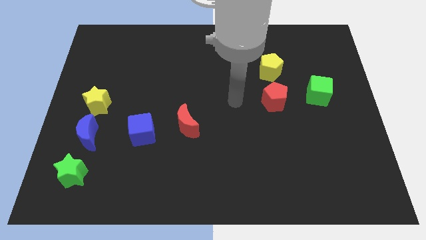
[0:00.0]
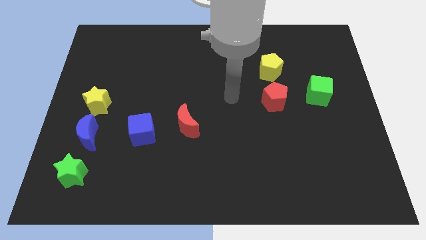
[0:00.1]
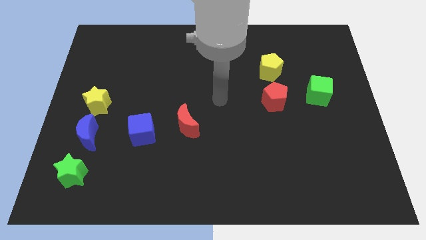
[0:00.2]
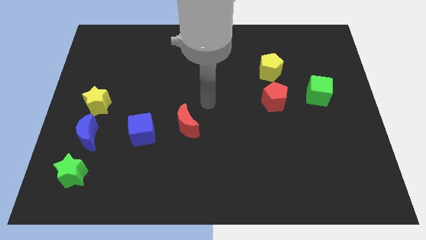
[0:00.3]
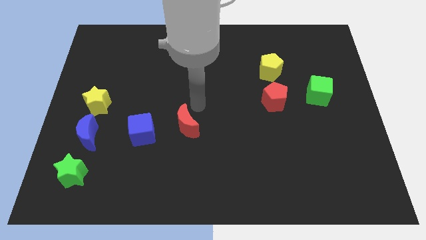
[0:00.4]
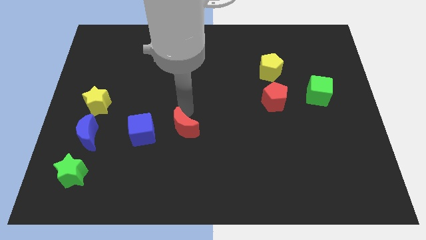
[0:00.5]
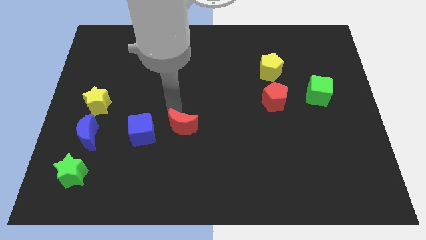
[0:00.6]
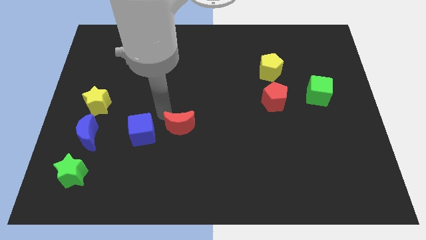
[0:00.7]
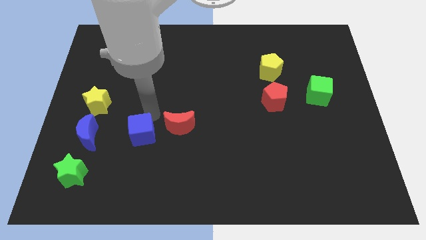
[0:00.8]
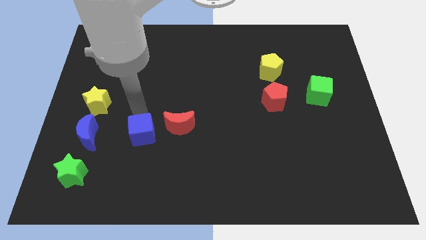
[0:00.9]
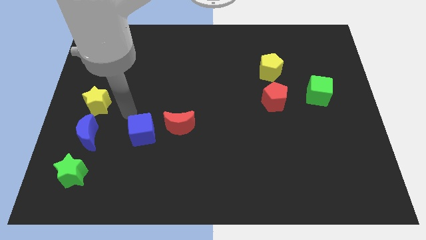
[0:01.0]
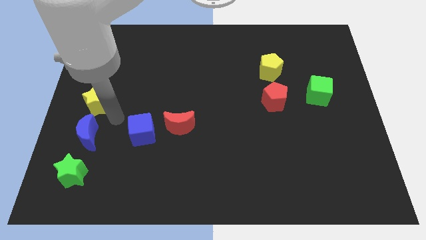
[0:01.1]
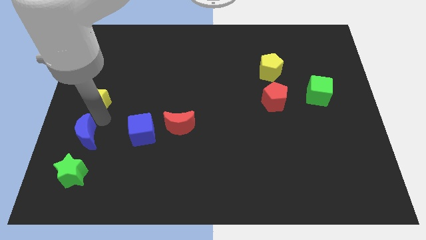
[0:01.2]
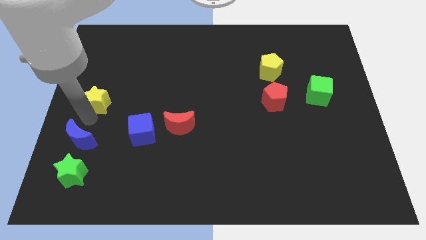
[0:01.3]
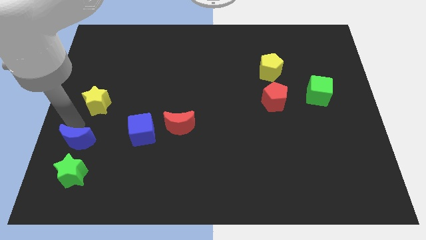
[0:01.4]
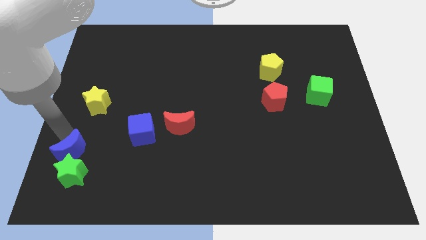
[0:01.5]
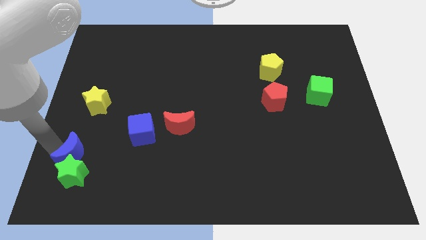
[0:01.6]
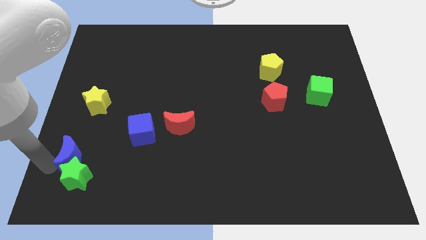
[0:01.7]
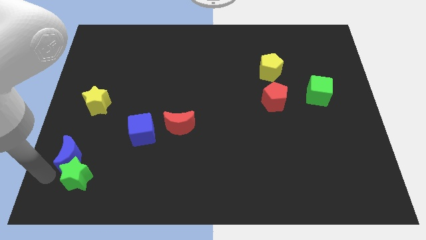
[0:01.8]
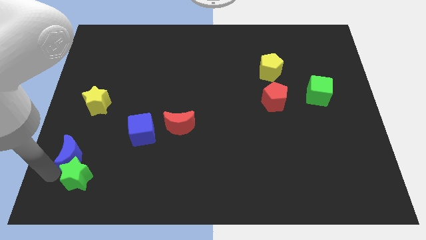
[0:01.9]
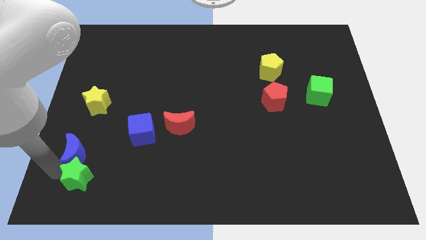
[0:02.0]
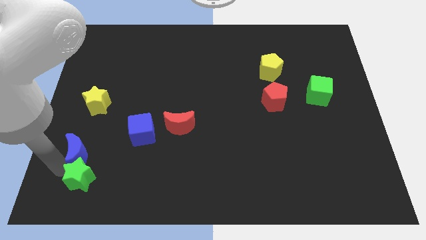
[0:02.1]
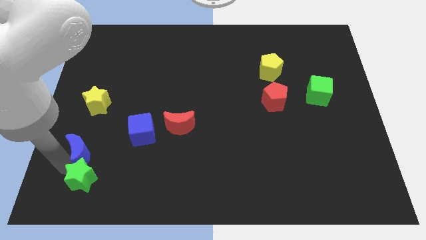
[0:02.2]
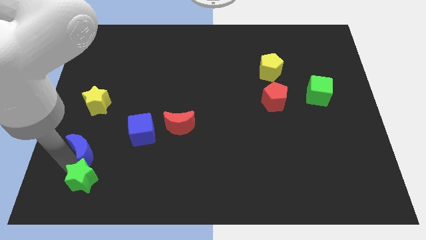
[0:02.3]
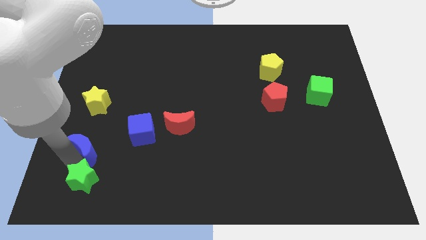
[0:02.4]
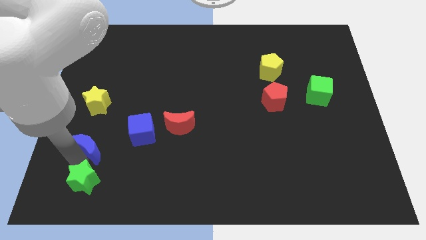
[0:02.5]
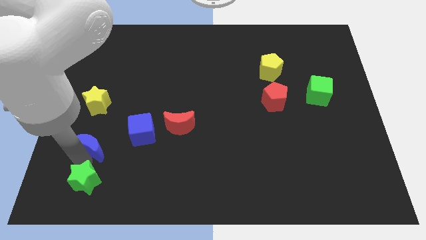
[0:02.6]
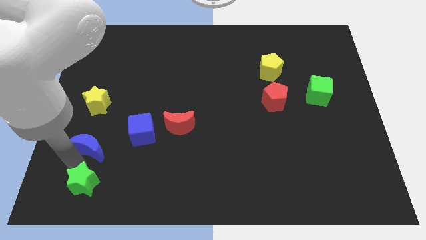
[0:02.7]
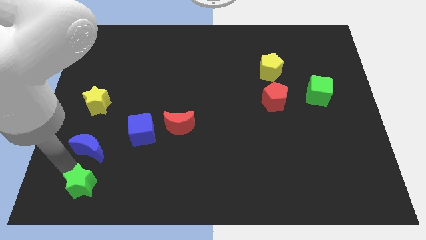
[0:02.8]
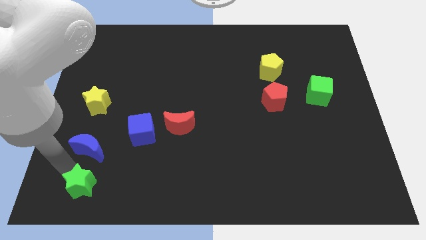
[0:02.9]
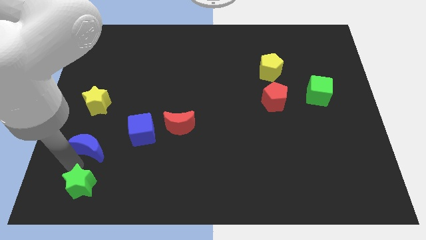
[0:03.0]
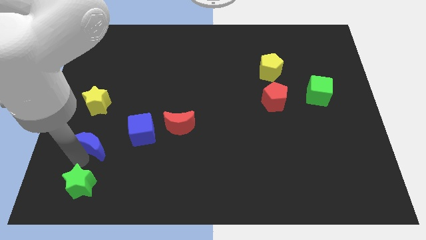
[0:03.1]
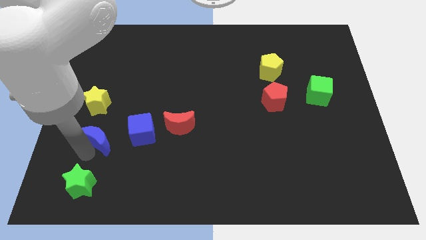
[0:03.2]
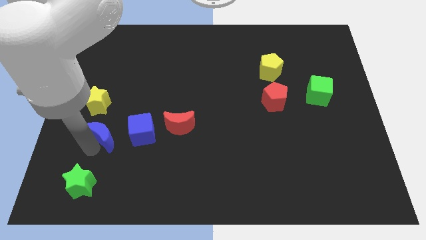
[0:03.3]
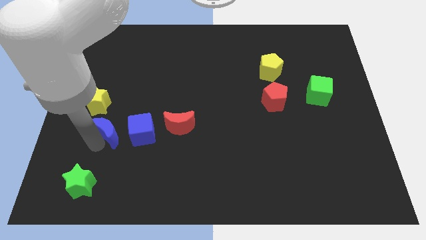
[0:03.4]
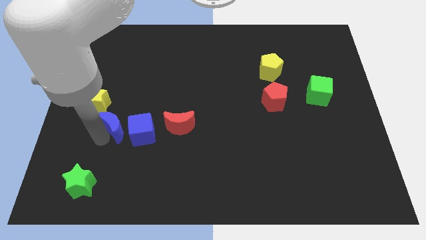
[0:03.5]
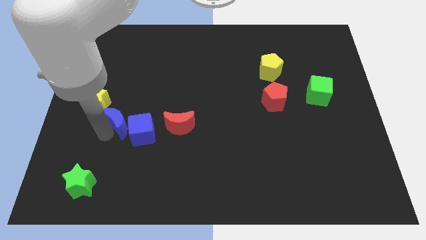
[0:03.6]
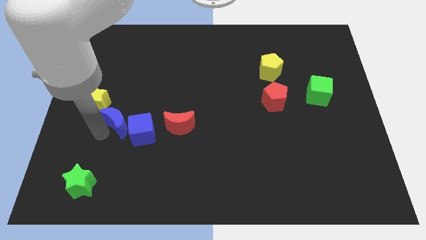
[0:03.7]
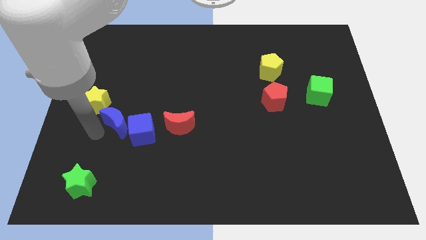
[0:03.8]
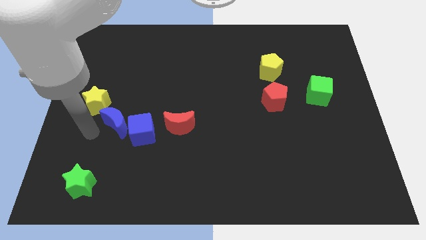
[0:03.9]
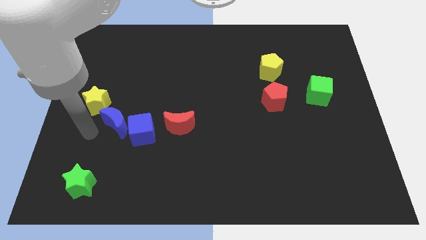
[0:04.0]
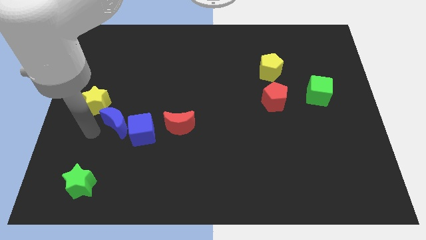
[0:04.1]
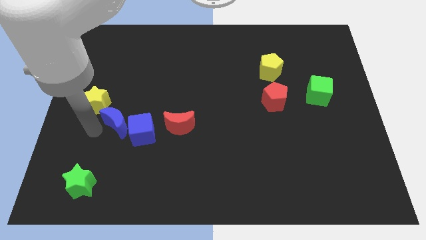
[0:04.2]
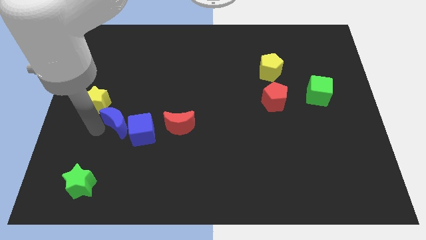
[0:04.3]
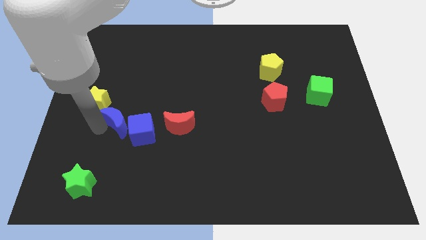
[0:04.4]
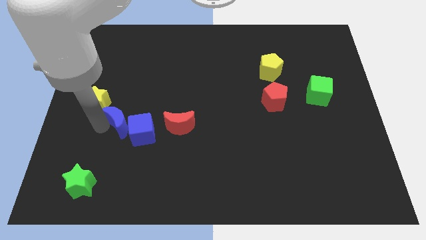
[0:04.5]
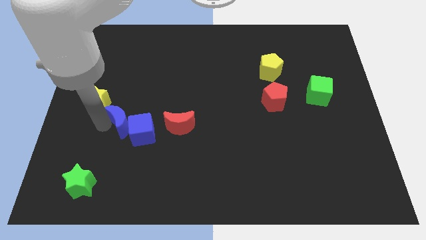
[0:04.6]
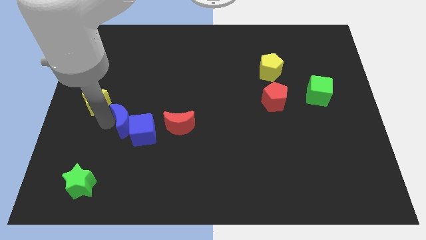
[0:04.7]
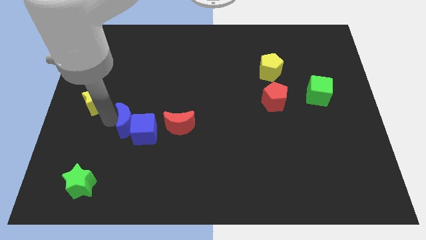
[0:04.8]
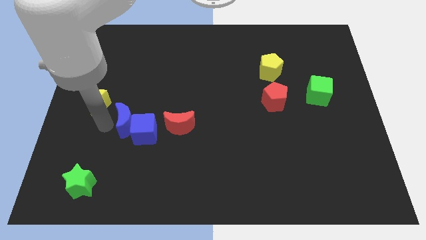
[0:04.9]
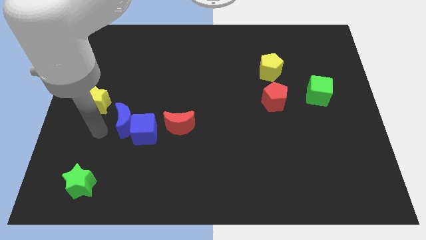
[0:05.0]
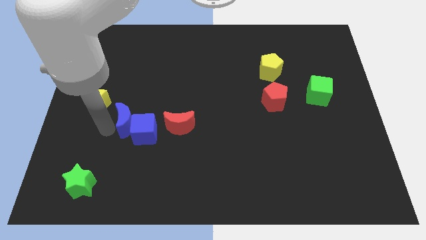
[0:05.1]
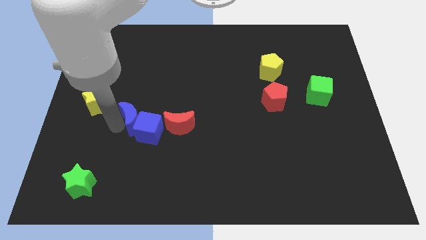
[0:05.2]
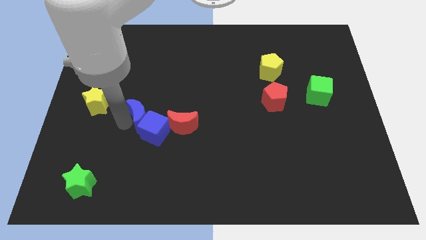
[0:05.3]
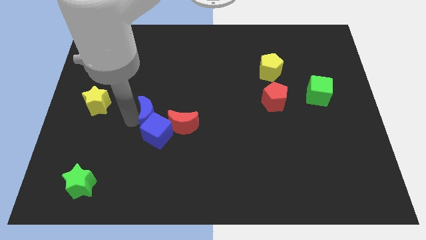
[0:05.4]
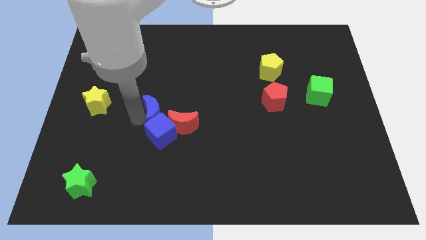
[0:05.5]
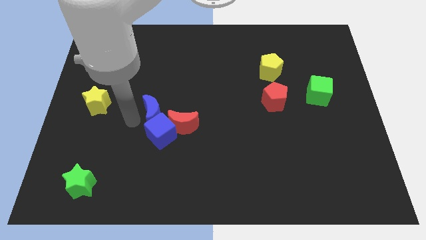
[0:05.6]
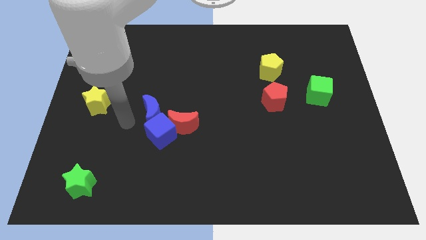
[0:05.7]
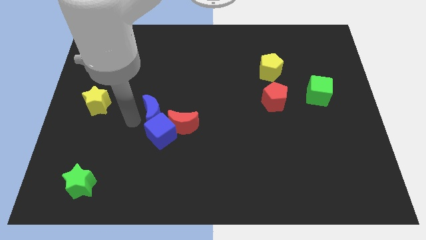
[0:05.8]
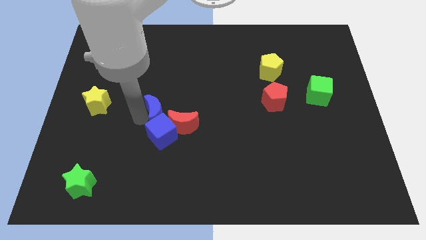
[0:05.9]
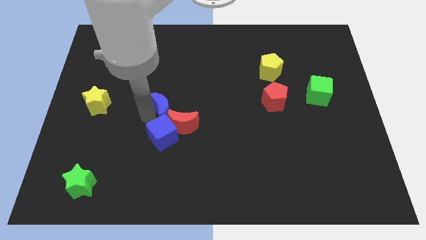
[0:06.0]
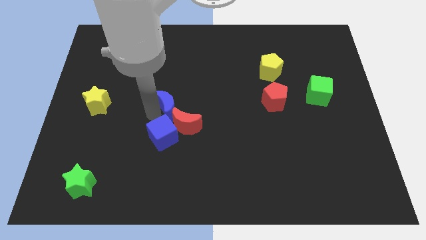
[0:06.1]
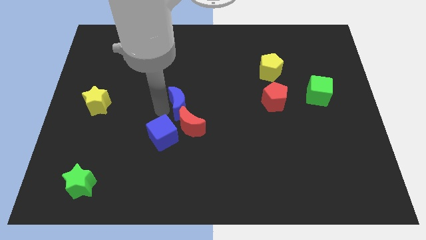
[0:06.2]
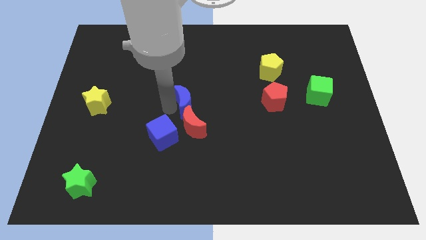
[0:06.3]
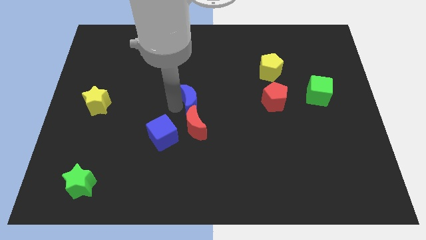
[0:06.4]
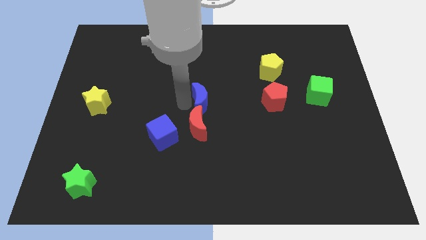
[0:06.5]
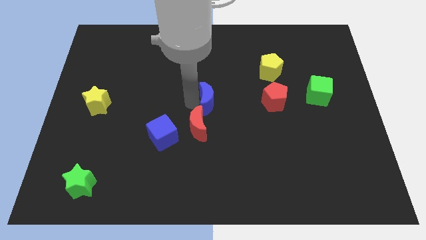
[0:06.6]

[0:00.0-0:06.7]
move the blue moon to the left of the red pentagon
